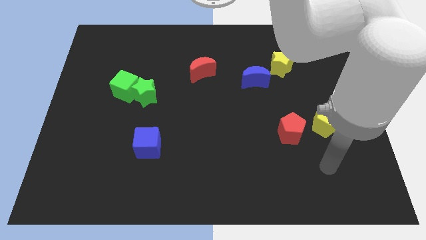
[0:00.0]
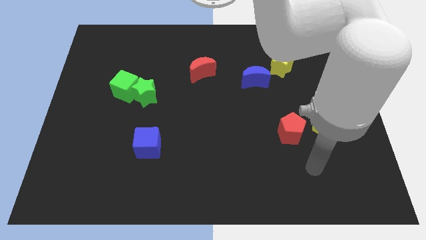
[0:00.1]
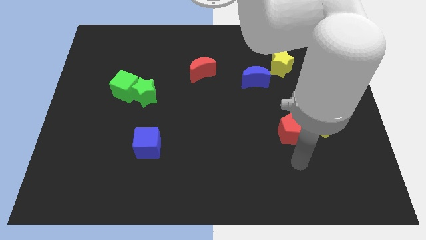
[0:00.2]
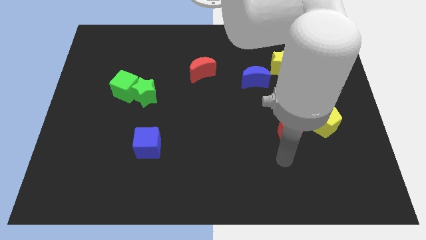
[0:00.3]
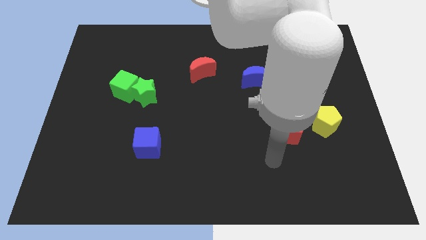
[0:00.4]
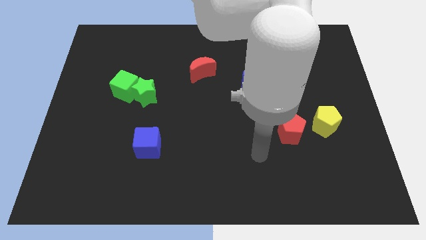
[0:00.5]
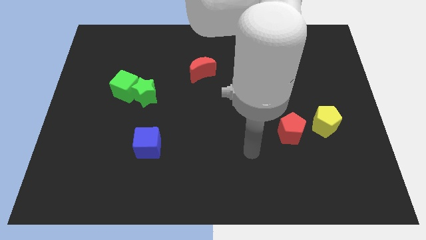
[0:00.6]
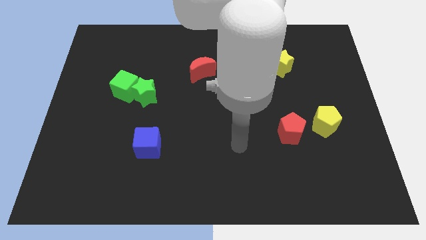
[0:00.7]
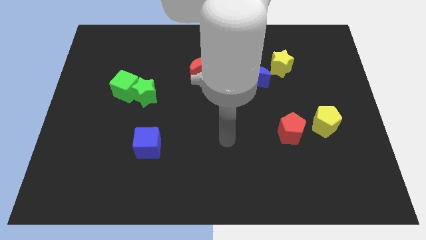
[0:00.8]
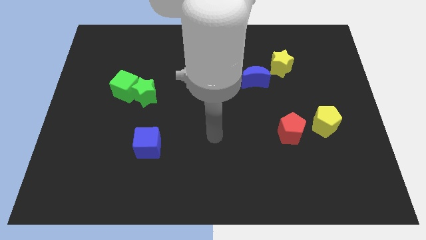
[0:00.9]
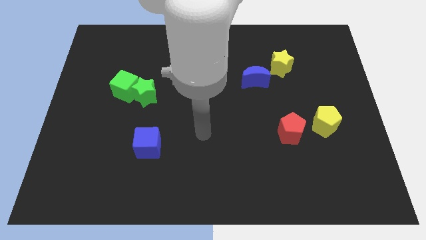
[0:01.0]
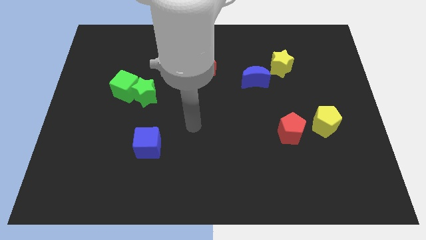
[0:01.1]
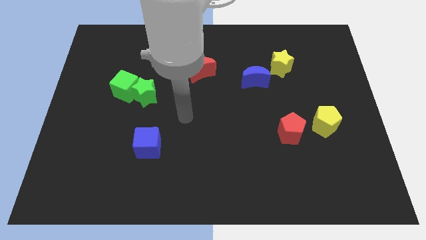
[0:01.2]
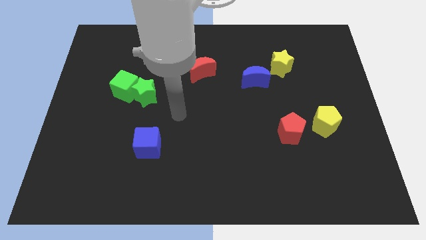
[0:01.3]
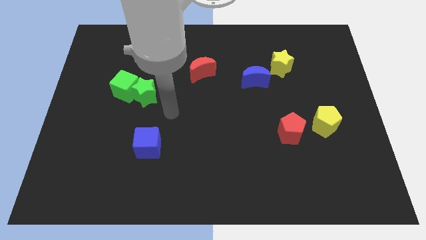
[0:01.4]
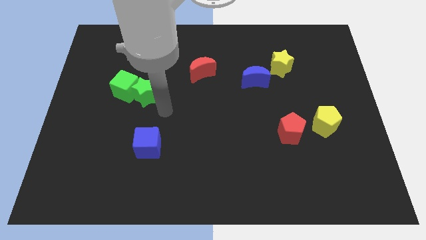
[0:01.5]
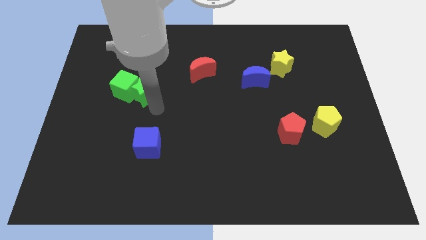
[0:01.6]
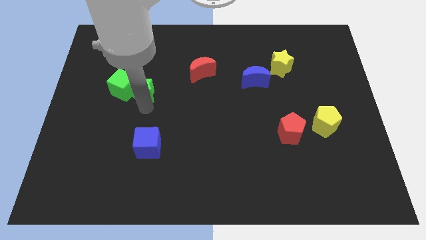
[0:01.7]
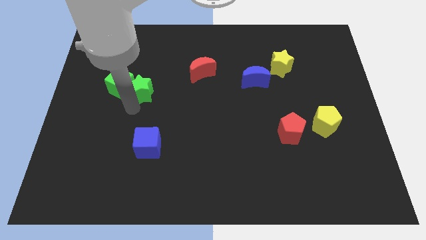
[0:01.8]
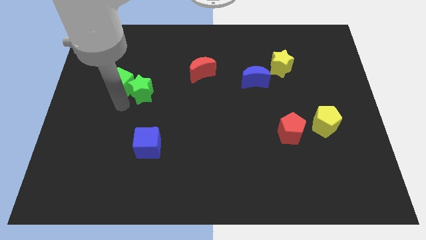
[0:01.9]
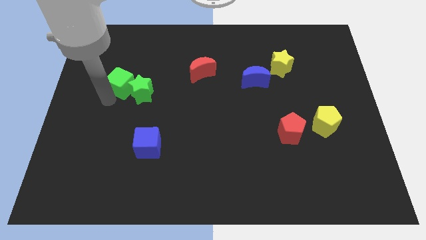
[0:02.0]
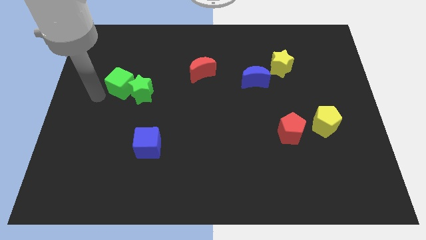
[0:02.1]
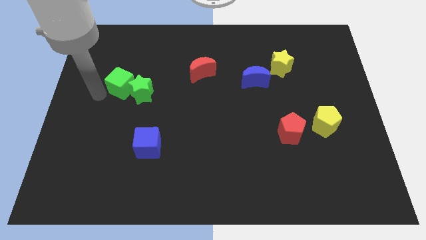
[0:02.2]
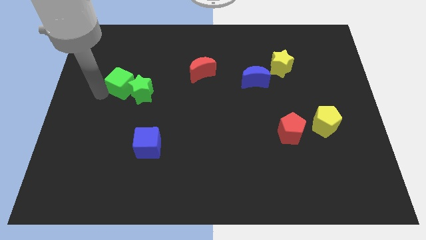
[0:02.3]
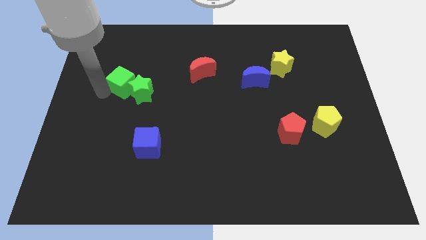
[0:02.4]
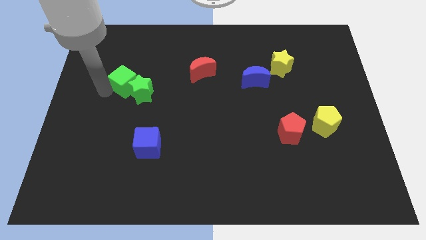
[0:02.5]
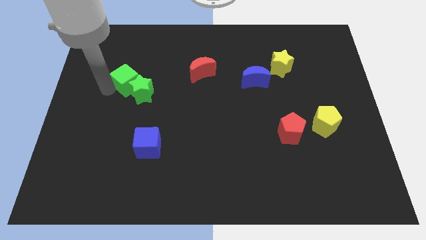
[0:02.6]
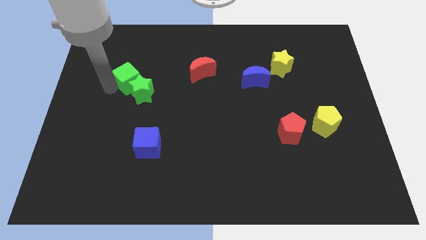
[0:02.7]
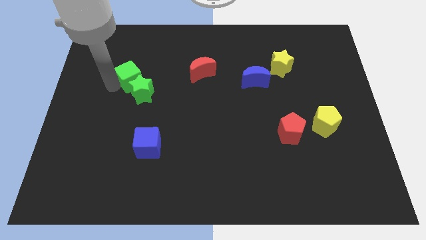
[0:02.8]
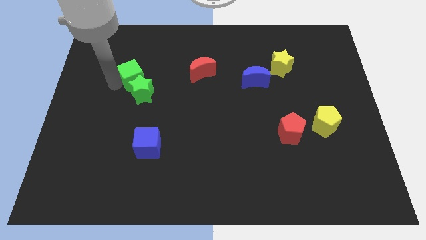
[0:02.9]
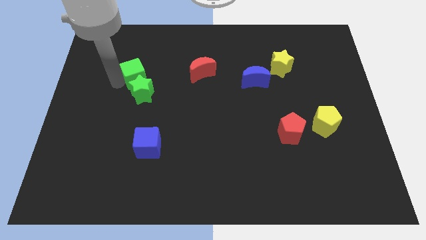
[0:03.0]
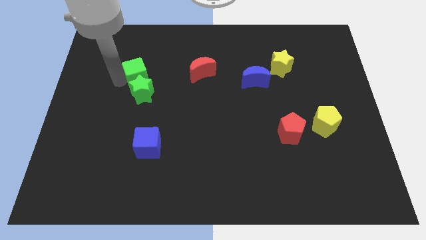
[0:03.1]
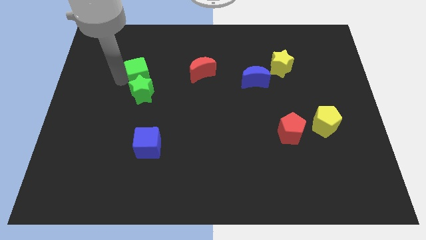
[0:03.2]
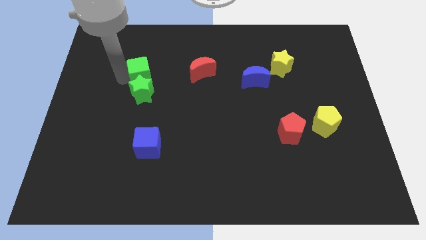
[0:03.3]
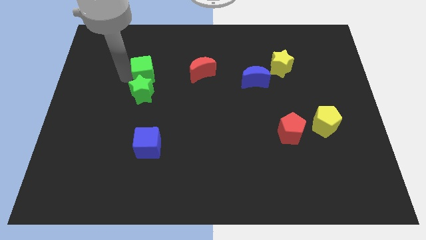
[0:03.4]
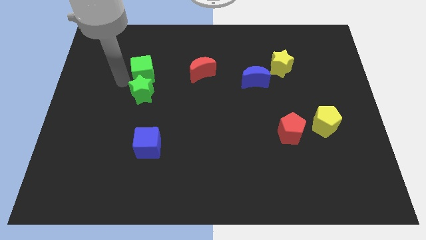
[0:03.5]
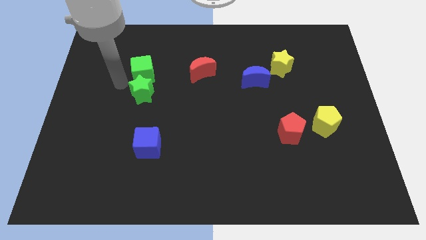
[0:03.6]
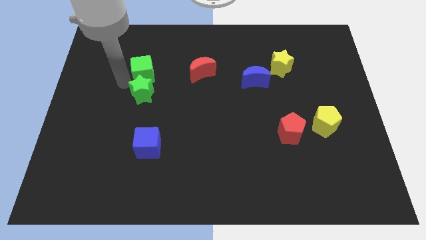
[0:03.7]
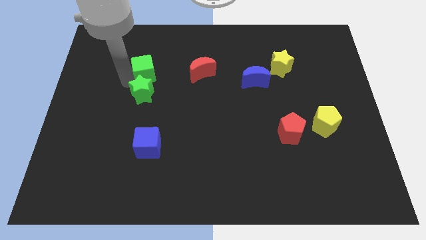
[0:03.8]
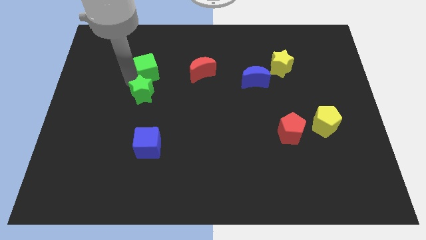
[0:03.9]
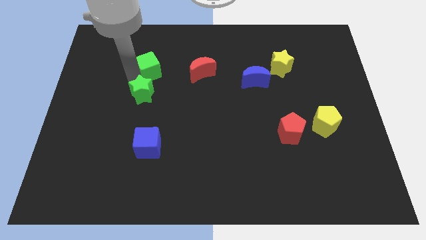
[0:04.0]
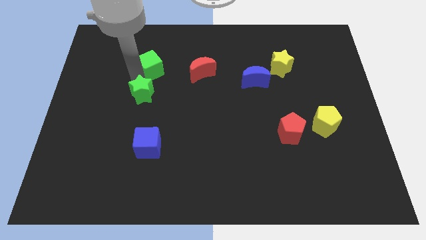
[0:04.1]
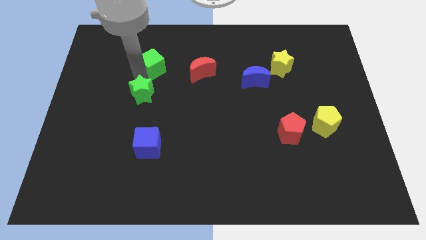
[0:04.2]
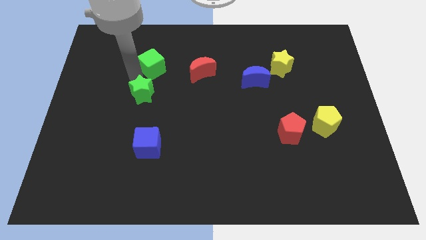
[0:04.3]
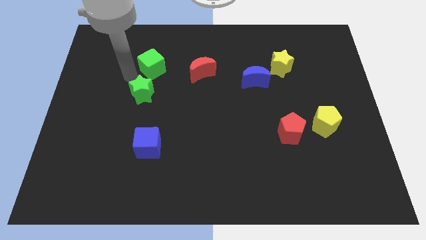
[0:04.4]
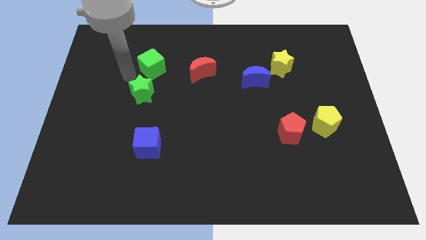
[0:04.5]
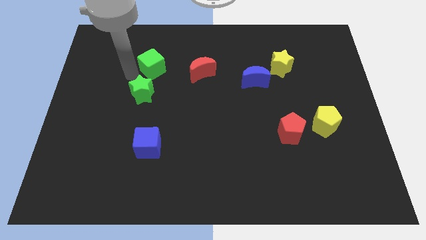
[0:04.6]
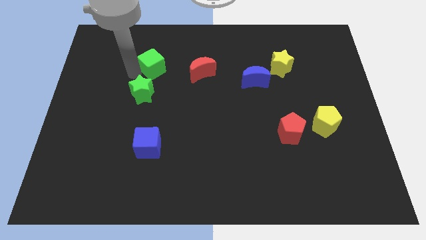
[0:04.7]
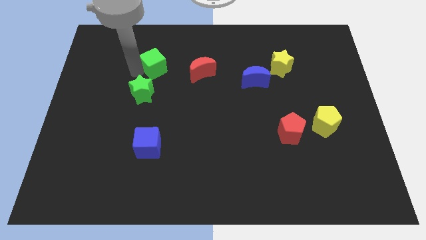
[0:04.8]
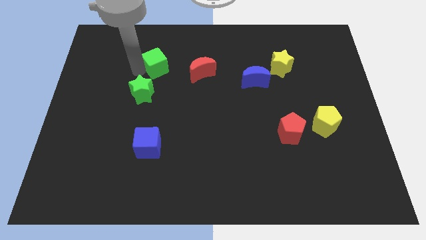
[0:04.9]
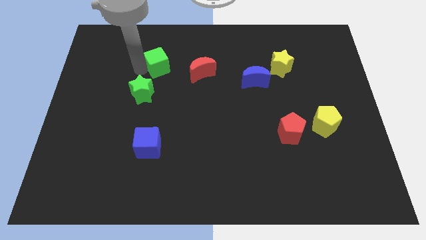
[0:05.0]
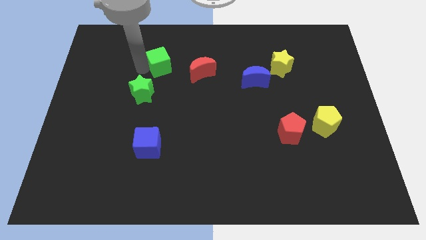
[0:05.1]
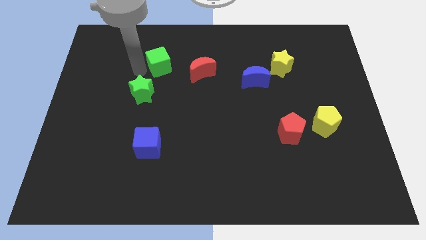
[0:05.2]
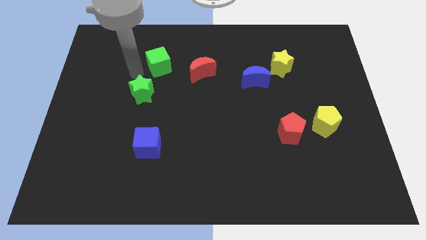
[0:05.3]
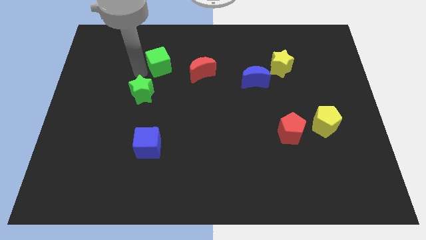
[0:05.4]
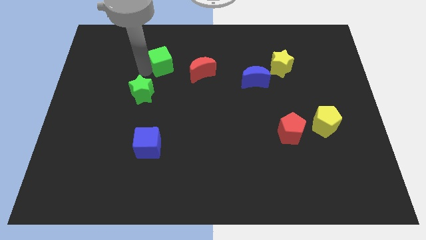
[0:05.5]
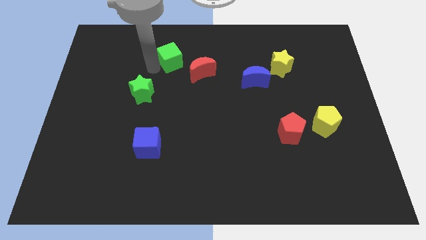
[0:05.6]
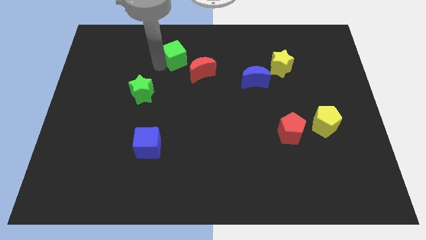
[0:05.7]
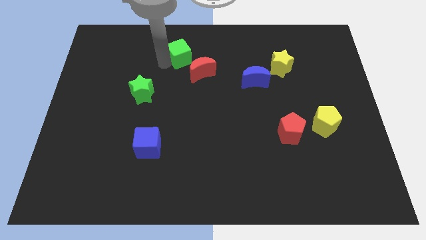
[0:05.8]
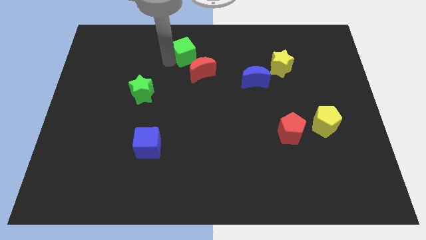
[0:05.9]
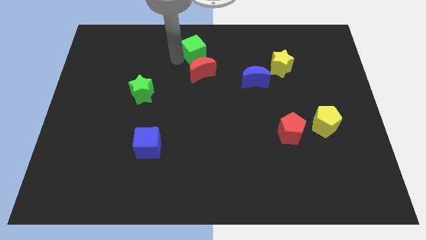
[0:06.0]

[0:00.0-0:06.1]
push the green cube to the top
